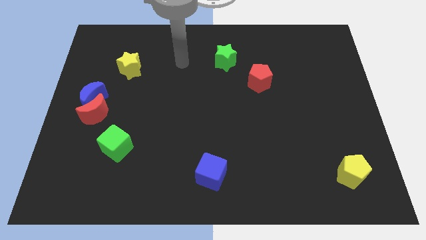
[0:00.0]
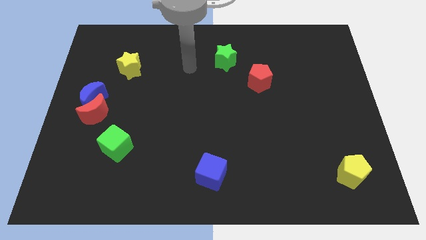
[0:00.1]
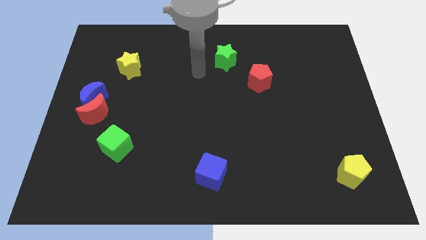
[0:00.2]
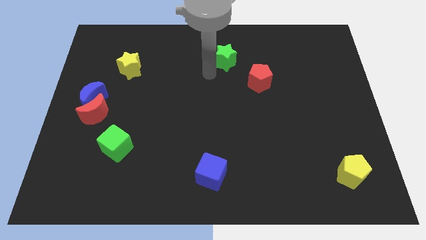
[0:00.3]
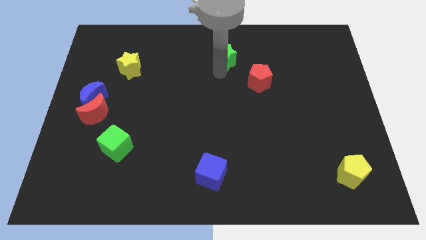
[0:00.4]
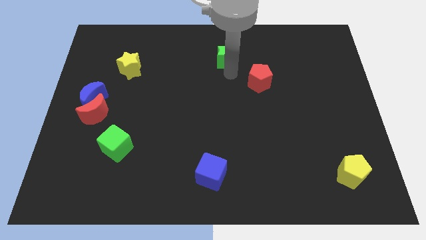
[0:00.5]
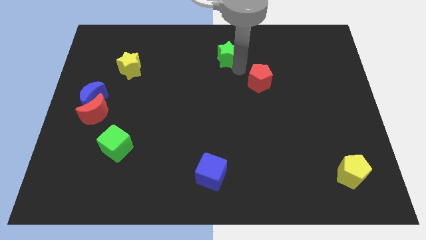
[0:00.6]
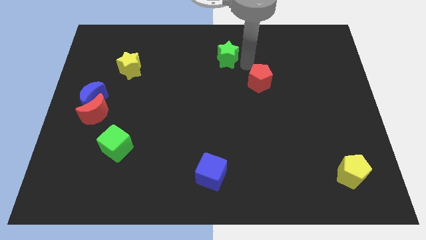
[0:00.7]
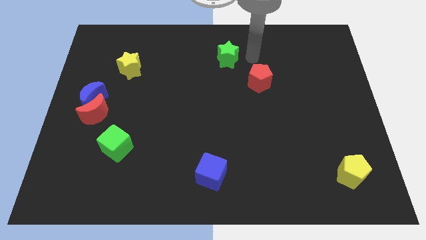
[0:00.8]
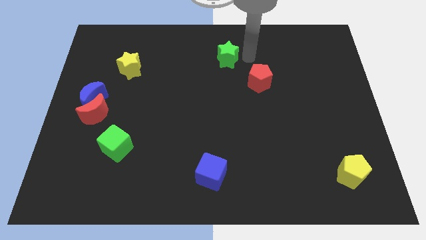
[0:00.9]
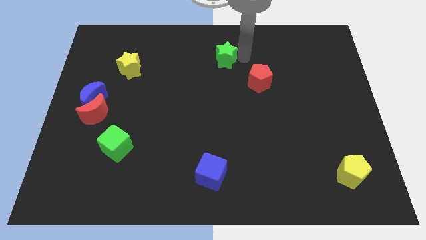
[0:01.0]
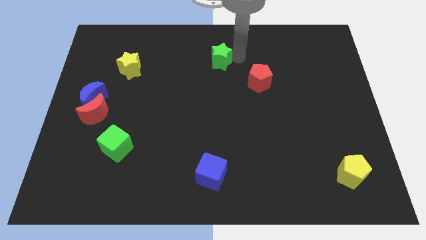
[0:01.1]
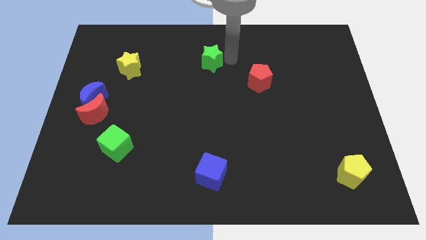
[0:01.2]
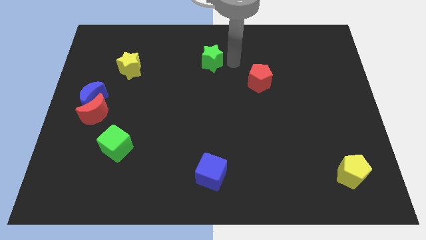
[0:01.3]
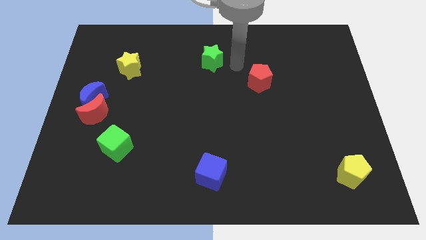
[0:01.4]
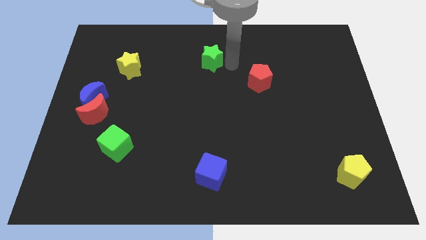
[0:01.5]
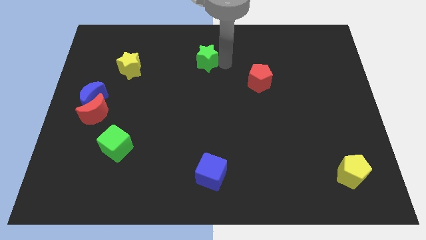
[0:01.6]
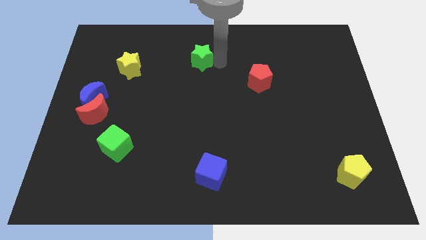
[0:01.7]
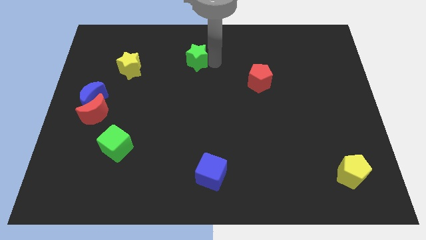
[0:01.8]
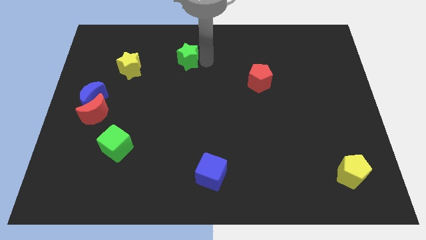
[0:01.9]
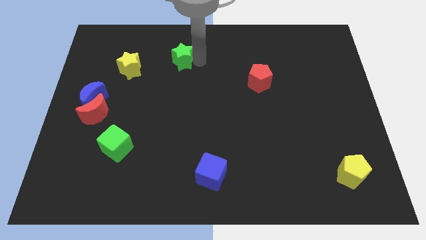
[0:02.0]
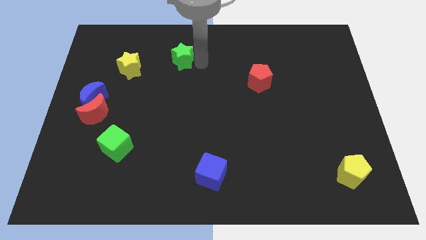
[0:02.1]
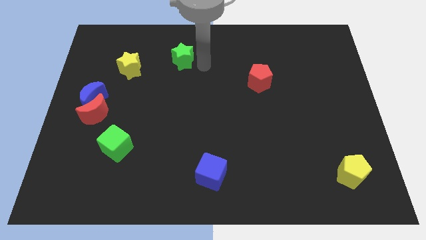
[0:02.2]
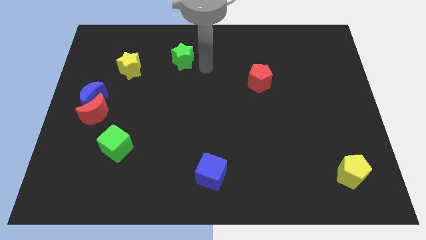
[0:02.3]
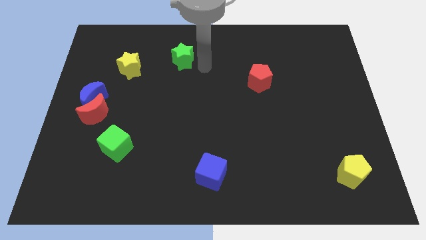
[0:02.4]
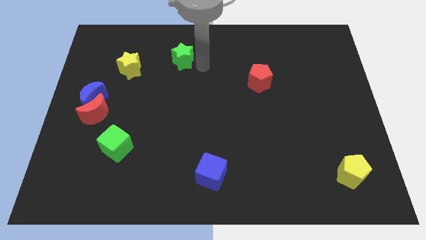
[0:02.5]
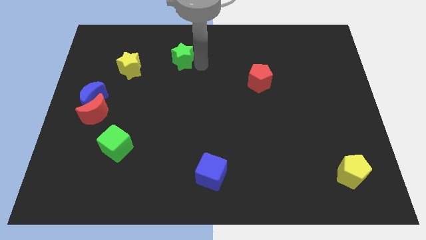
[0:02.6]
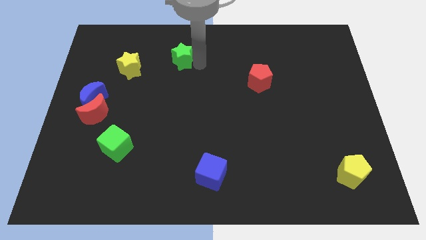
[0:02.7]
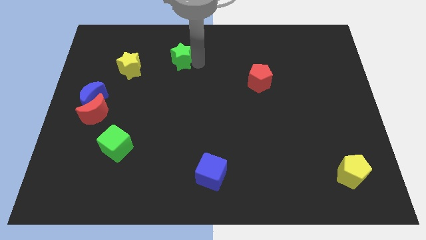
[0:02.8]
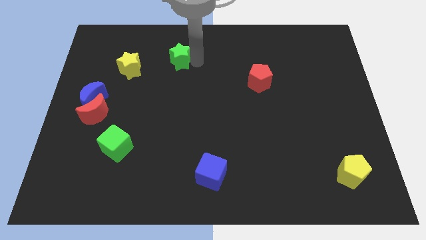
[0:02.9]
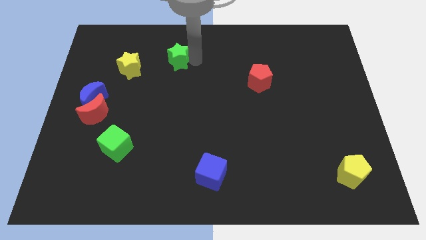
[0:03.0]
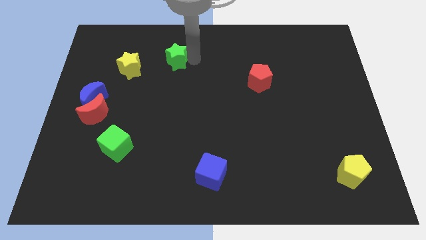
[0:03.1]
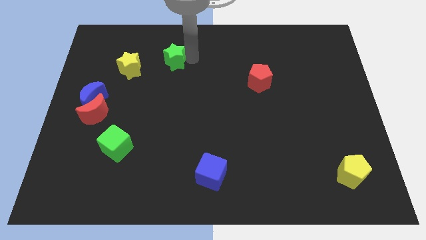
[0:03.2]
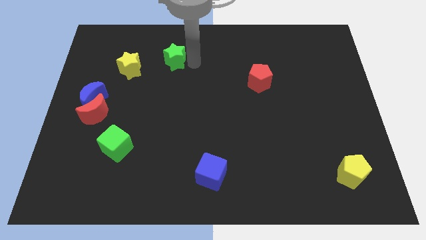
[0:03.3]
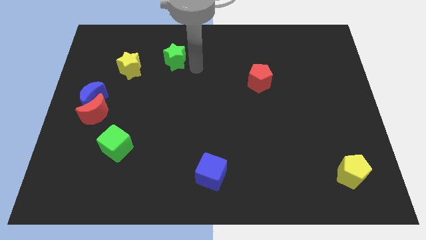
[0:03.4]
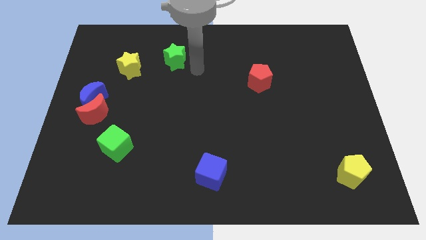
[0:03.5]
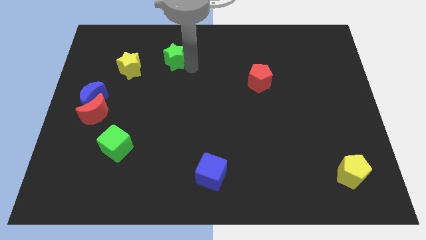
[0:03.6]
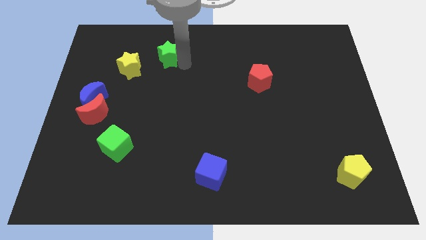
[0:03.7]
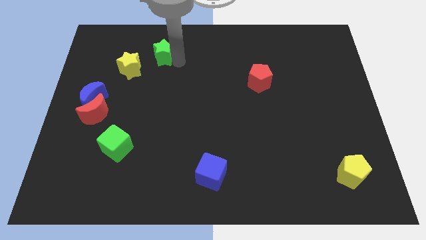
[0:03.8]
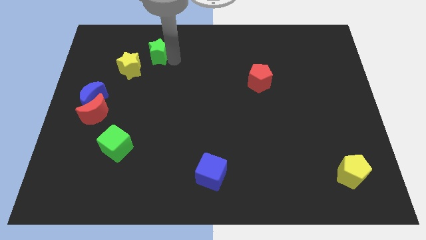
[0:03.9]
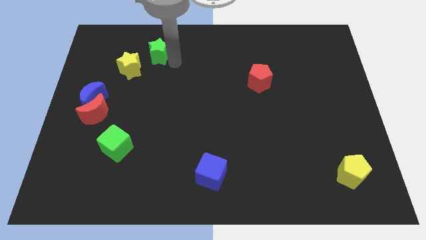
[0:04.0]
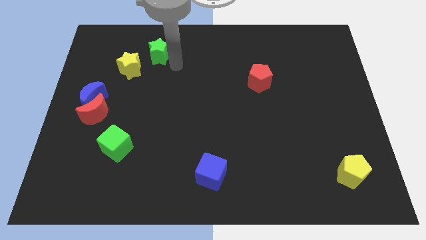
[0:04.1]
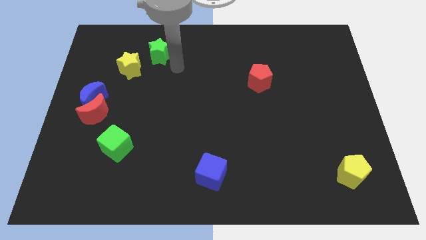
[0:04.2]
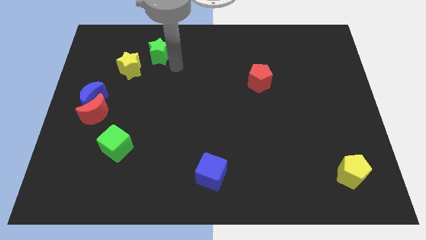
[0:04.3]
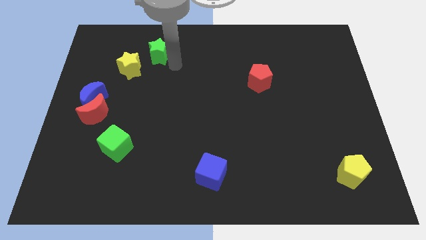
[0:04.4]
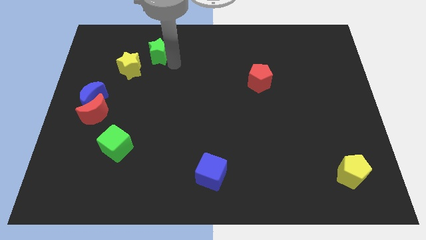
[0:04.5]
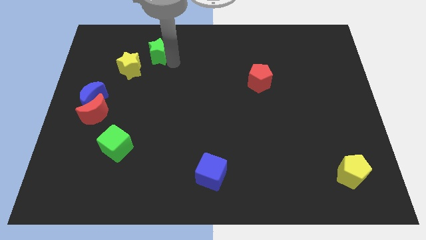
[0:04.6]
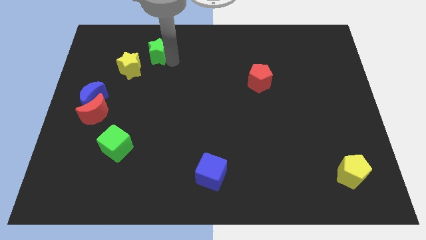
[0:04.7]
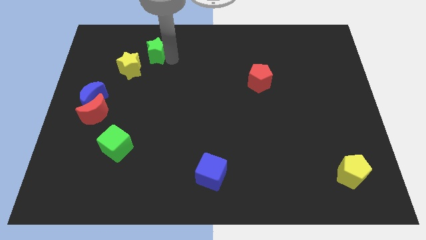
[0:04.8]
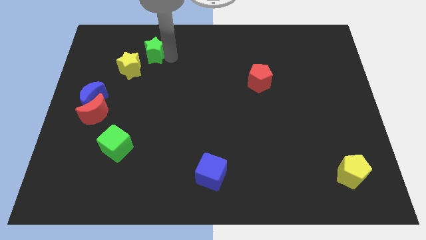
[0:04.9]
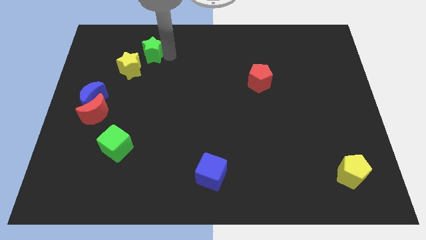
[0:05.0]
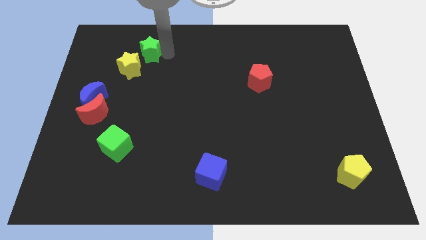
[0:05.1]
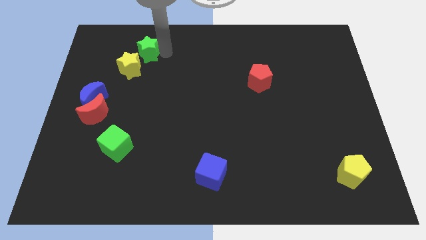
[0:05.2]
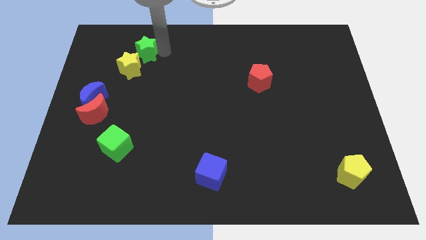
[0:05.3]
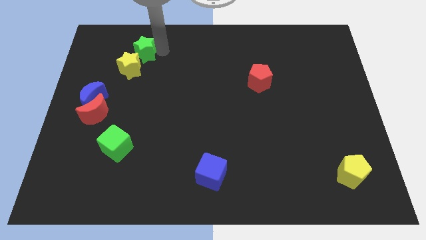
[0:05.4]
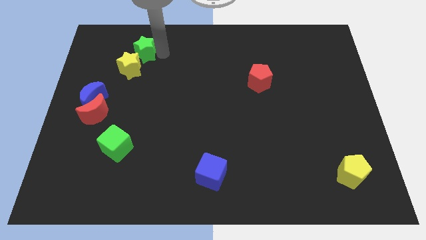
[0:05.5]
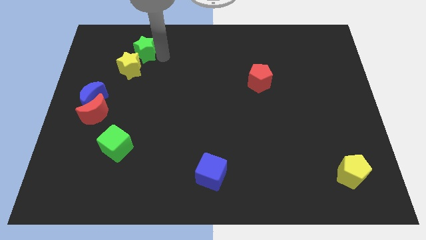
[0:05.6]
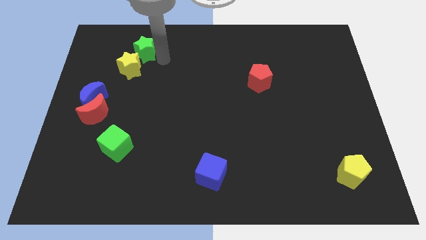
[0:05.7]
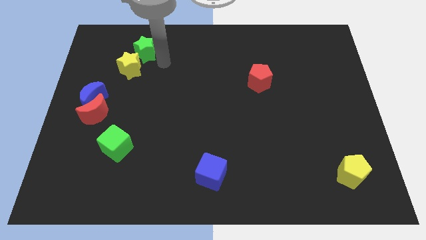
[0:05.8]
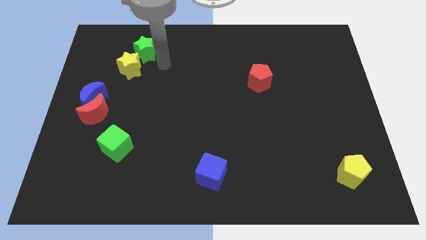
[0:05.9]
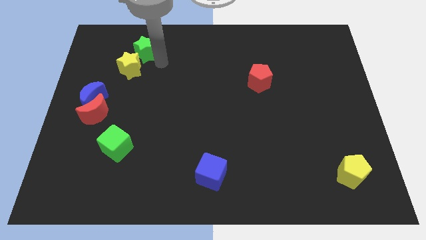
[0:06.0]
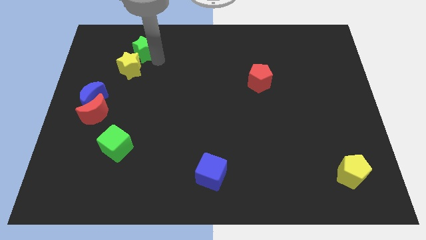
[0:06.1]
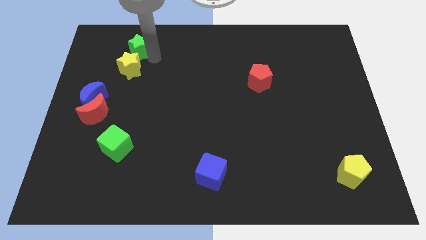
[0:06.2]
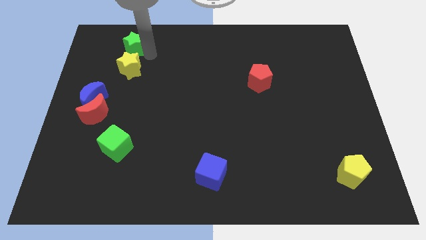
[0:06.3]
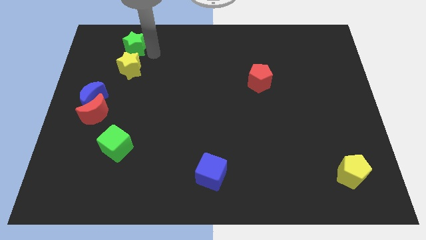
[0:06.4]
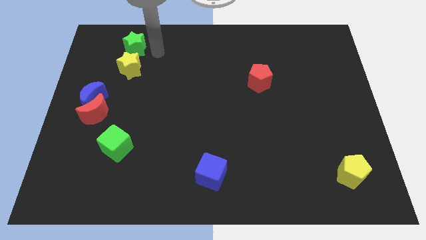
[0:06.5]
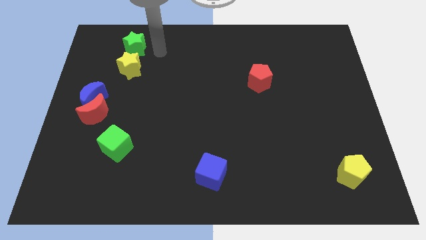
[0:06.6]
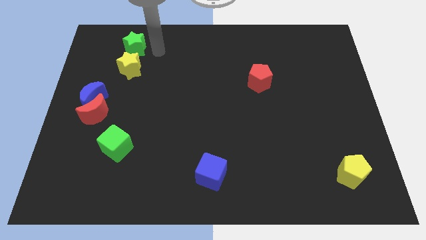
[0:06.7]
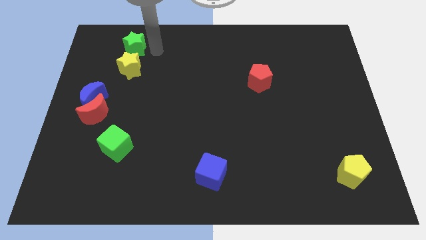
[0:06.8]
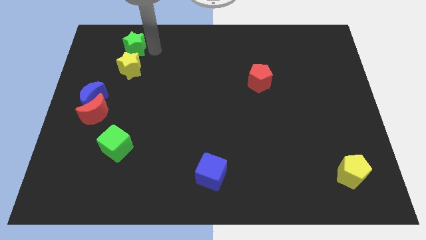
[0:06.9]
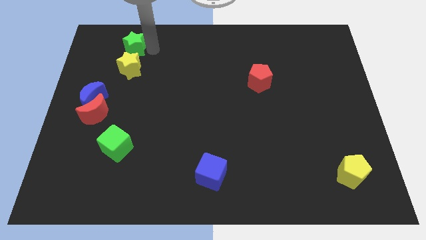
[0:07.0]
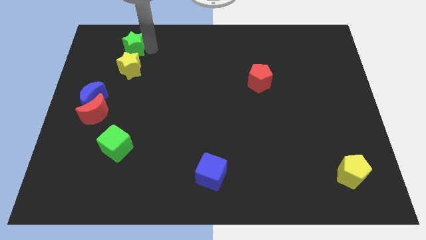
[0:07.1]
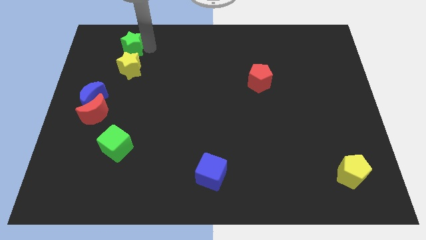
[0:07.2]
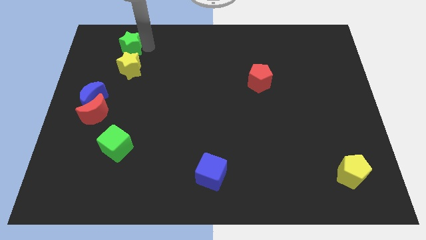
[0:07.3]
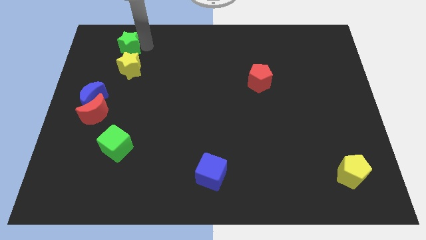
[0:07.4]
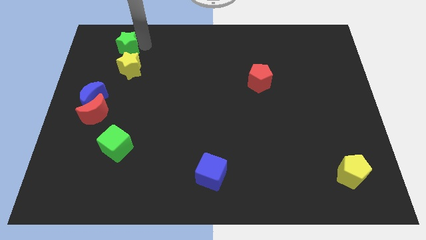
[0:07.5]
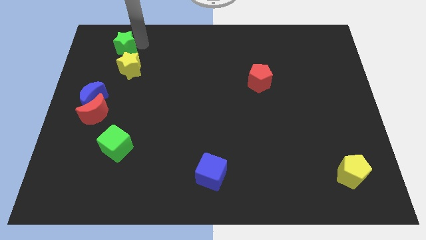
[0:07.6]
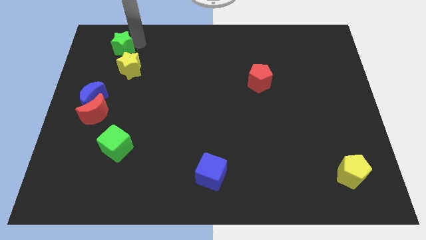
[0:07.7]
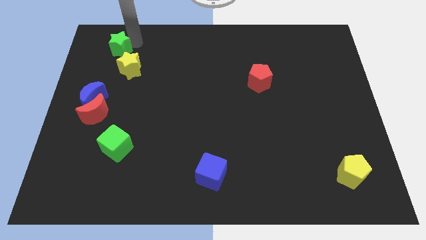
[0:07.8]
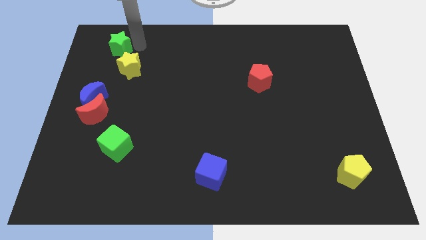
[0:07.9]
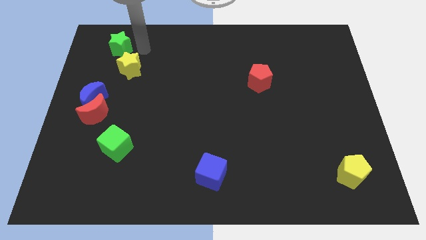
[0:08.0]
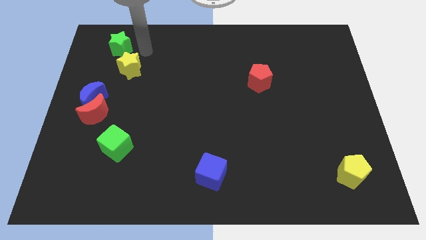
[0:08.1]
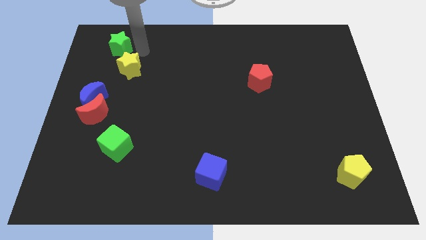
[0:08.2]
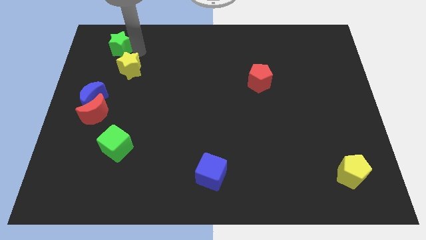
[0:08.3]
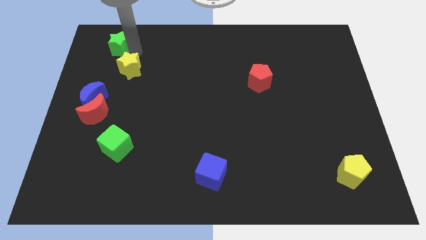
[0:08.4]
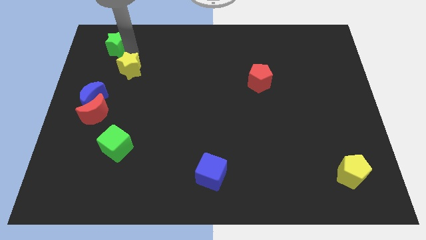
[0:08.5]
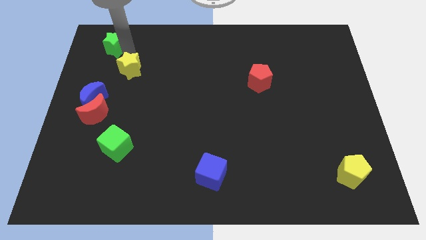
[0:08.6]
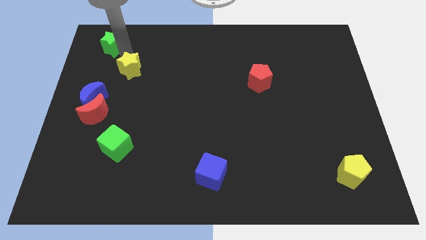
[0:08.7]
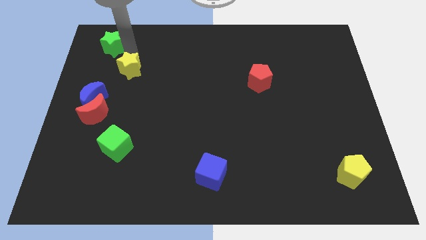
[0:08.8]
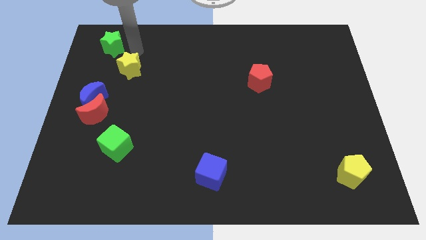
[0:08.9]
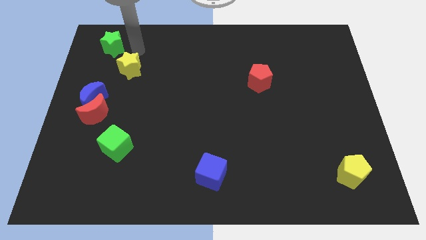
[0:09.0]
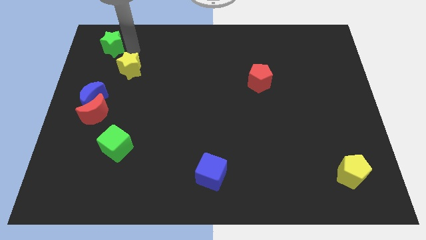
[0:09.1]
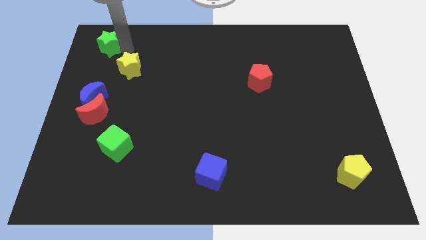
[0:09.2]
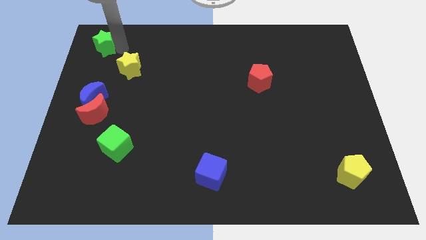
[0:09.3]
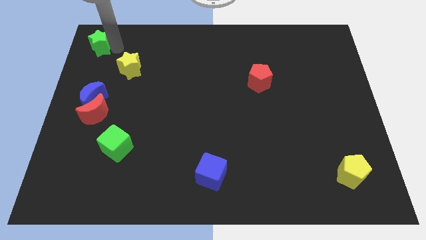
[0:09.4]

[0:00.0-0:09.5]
move the green star to the top left corner
